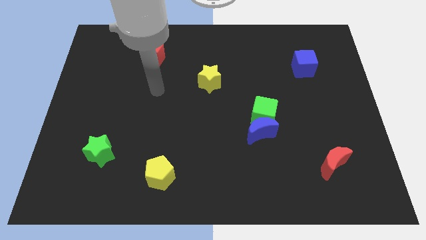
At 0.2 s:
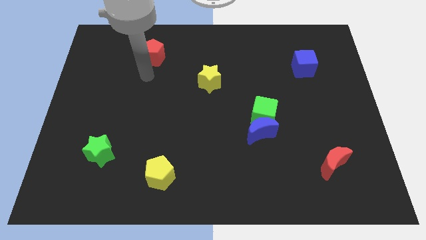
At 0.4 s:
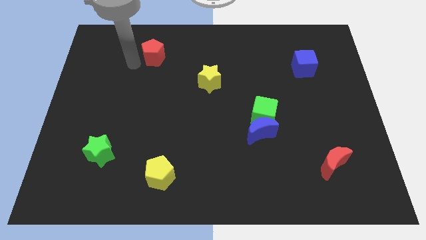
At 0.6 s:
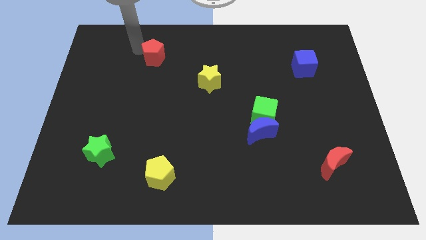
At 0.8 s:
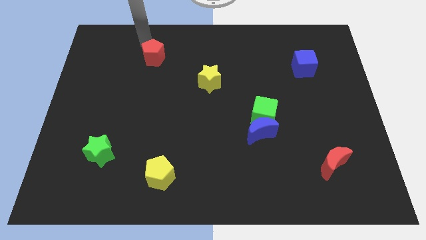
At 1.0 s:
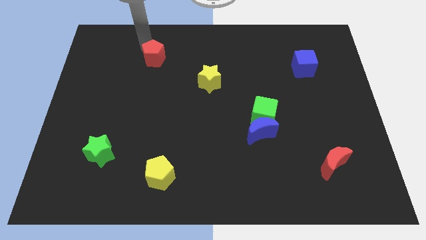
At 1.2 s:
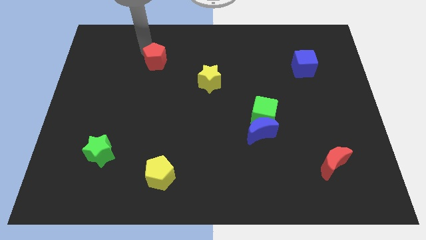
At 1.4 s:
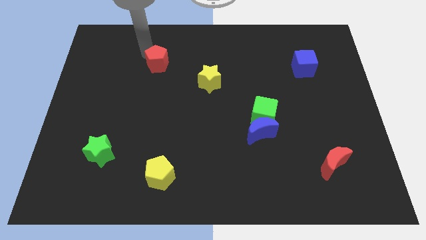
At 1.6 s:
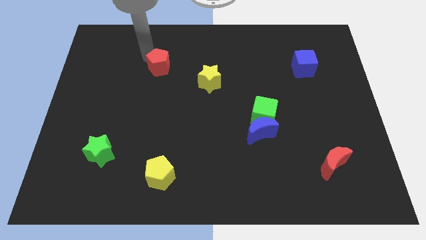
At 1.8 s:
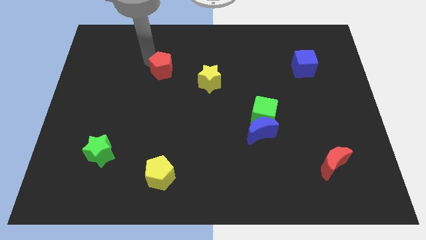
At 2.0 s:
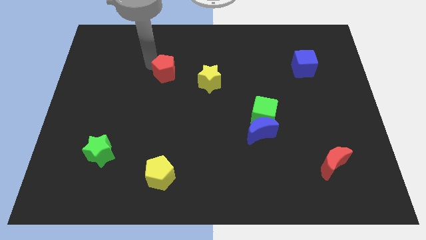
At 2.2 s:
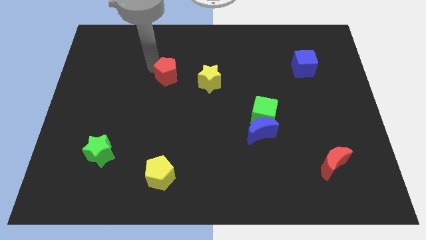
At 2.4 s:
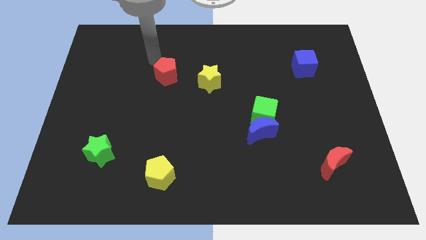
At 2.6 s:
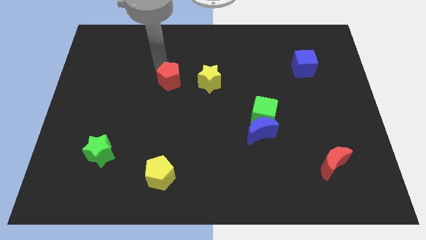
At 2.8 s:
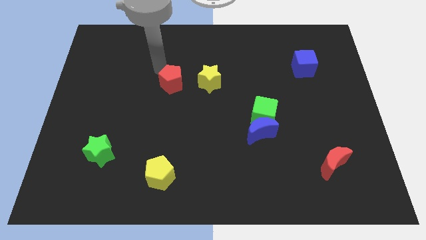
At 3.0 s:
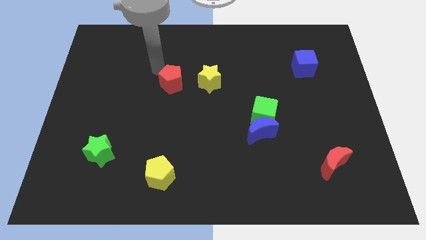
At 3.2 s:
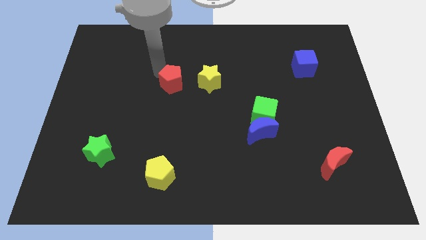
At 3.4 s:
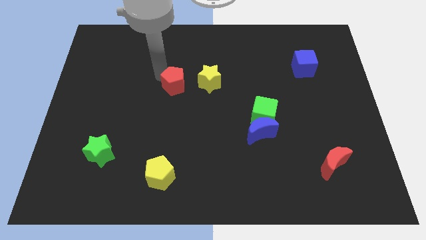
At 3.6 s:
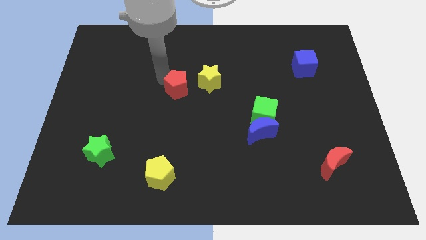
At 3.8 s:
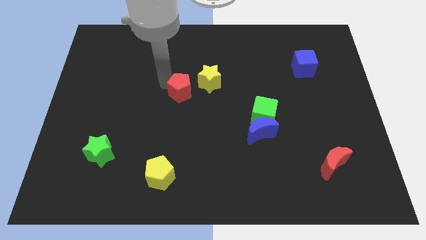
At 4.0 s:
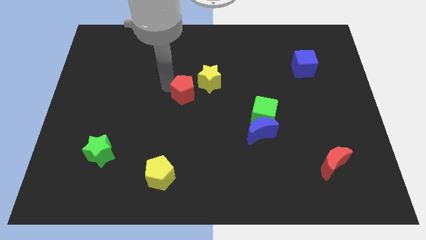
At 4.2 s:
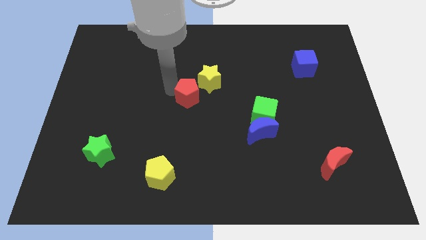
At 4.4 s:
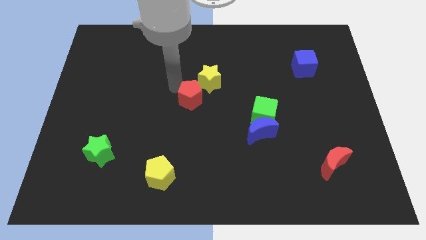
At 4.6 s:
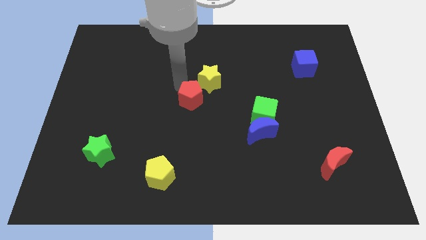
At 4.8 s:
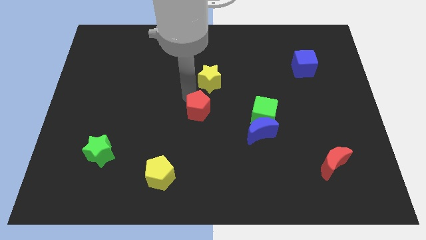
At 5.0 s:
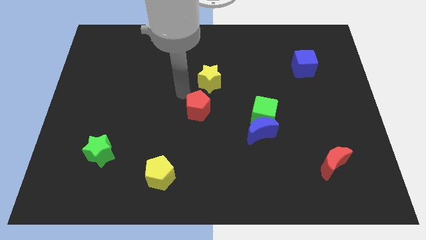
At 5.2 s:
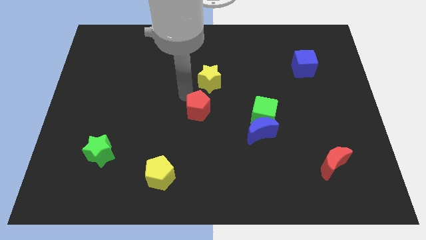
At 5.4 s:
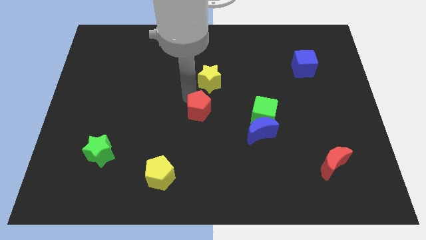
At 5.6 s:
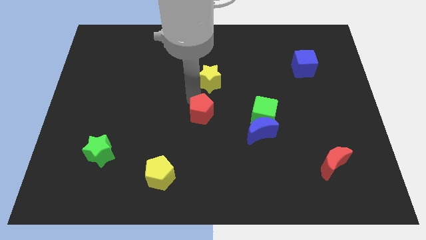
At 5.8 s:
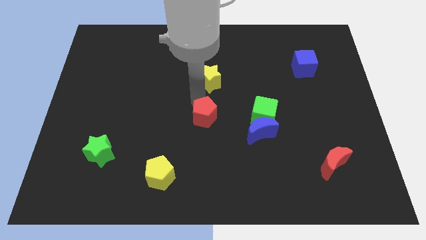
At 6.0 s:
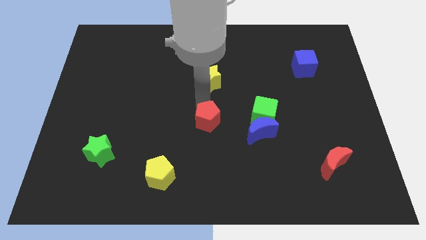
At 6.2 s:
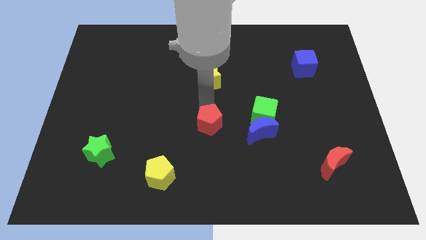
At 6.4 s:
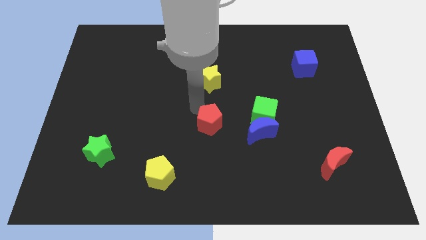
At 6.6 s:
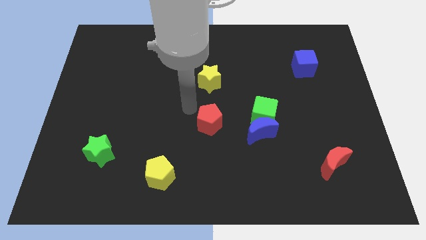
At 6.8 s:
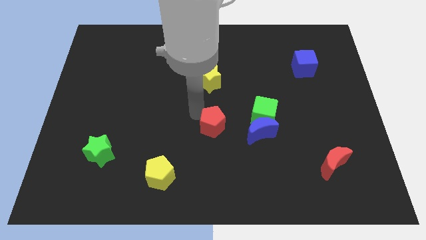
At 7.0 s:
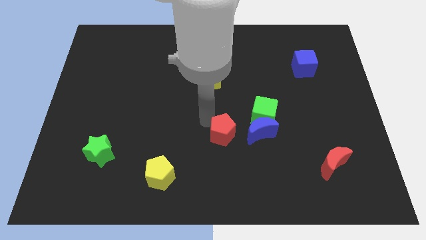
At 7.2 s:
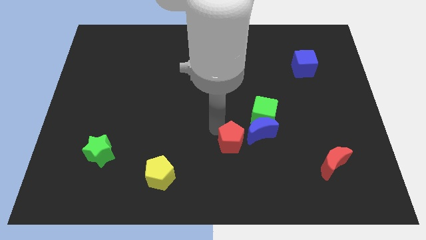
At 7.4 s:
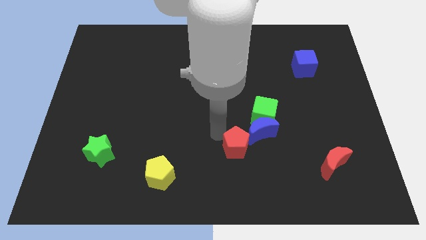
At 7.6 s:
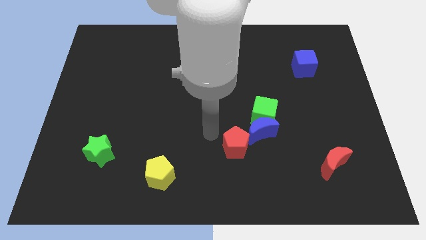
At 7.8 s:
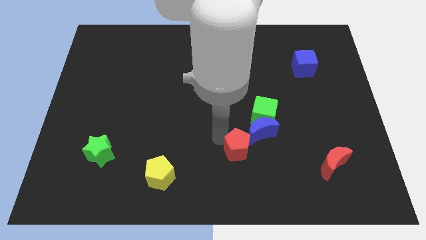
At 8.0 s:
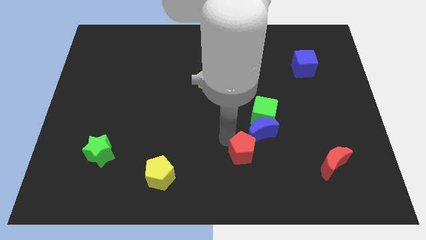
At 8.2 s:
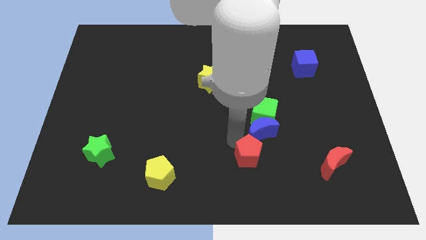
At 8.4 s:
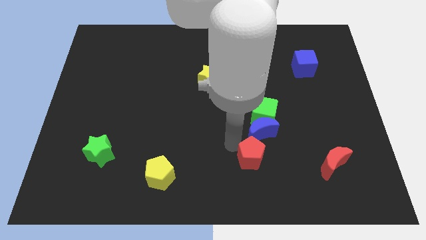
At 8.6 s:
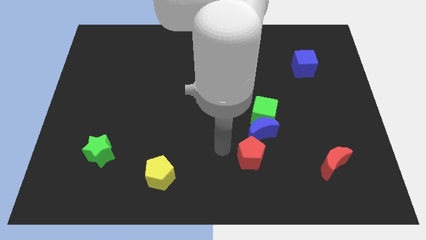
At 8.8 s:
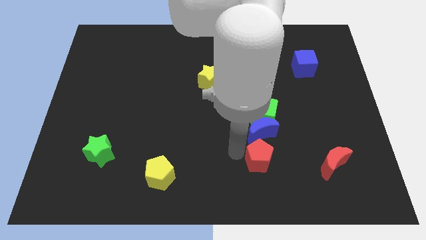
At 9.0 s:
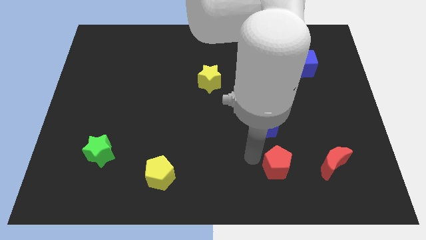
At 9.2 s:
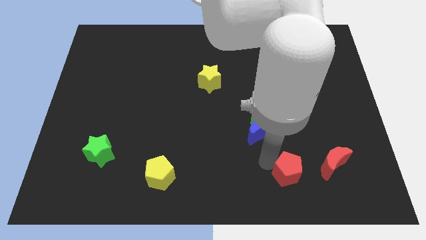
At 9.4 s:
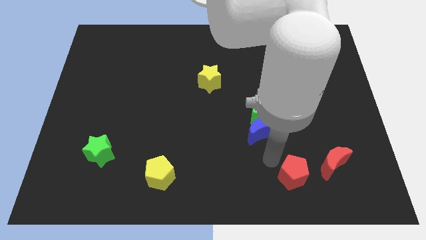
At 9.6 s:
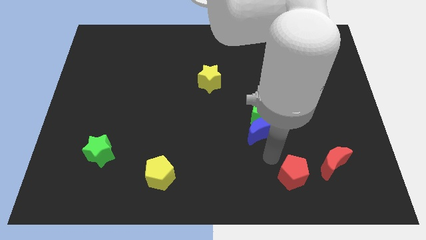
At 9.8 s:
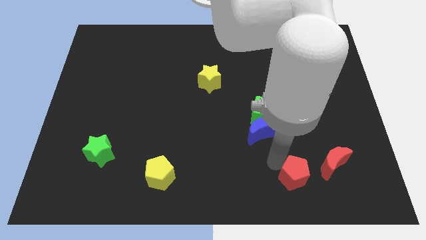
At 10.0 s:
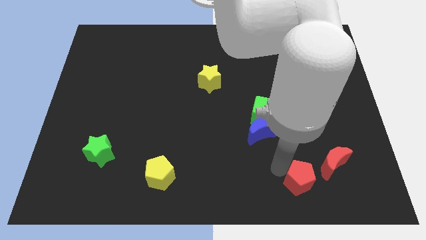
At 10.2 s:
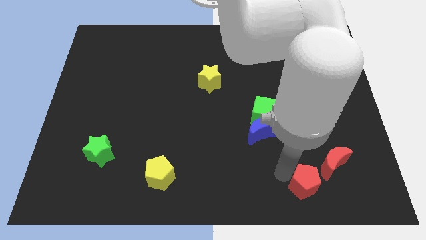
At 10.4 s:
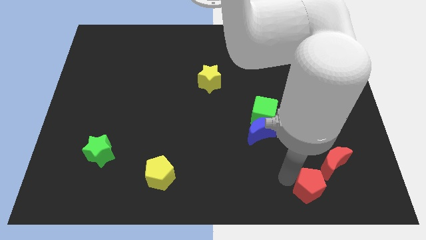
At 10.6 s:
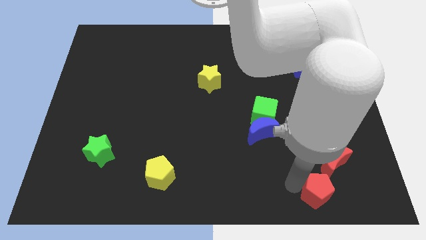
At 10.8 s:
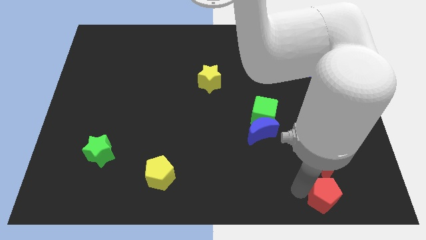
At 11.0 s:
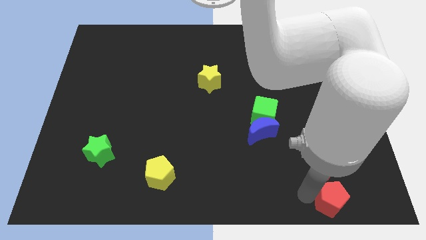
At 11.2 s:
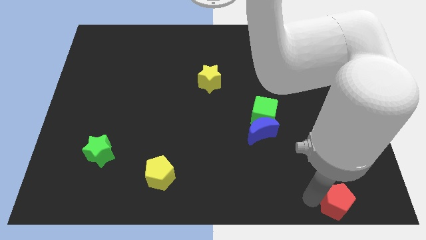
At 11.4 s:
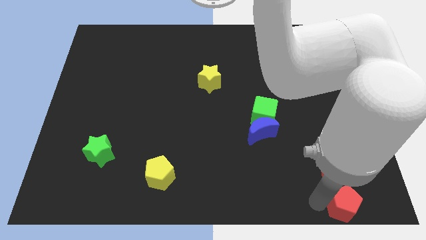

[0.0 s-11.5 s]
put the red pentagon to the lower right corner

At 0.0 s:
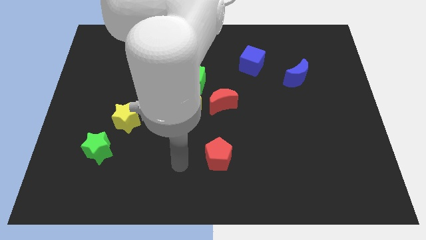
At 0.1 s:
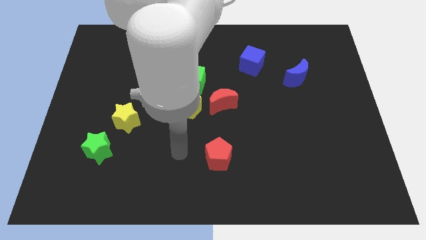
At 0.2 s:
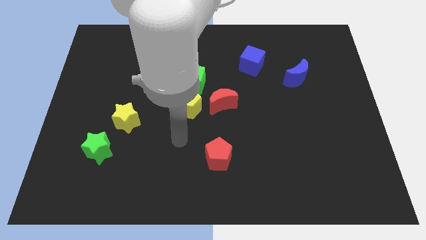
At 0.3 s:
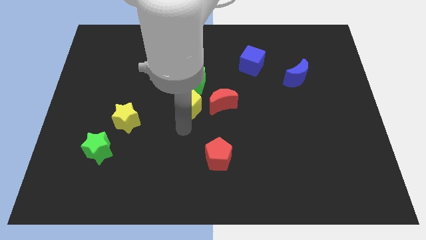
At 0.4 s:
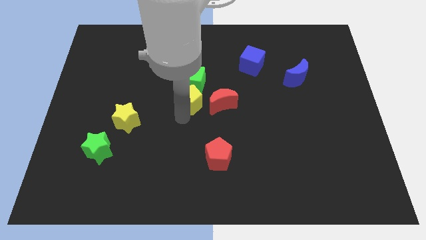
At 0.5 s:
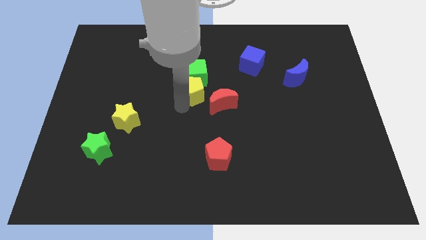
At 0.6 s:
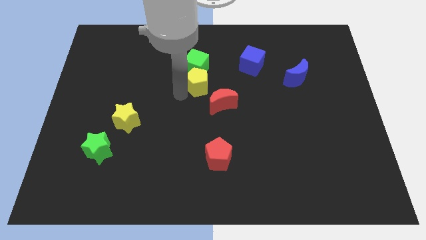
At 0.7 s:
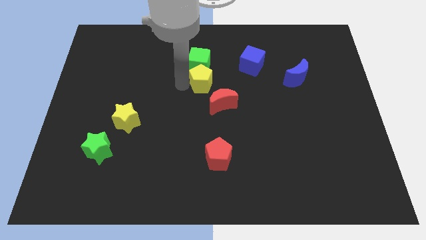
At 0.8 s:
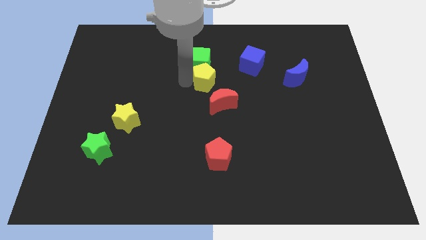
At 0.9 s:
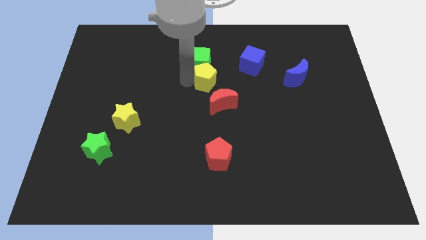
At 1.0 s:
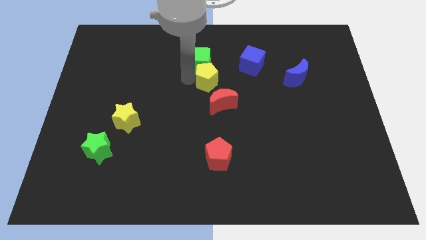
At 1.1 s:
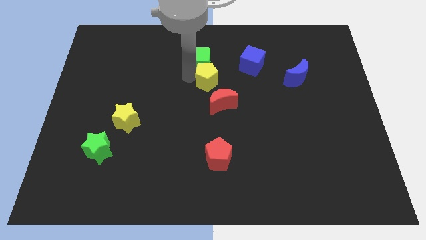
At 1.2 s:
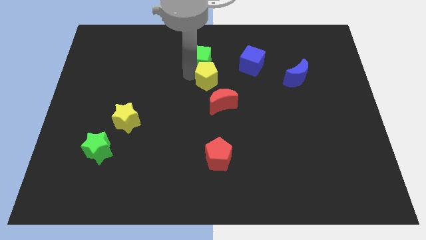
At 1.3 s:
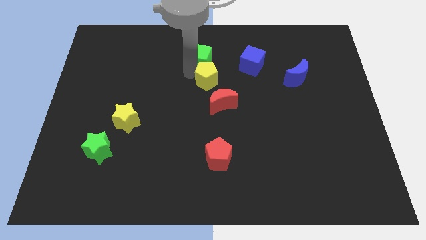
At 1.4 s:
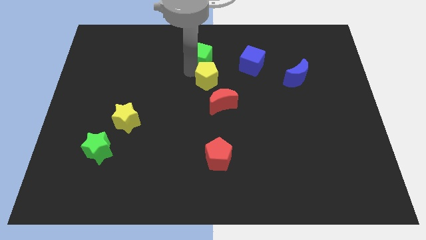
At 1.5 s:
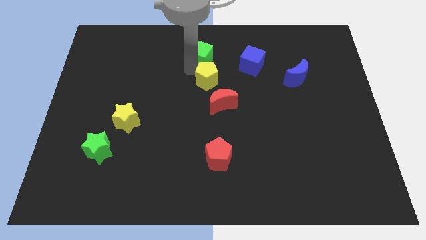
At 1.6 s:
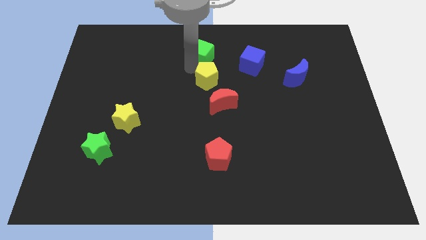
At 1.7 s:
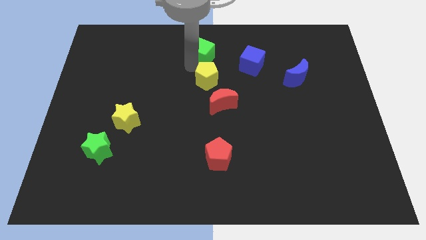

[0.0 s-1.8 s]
move the green cube to the towards your base

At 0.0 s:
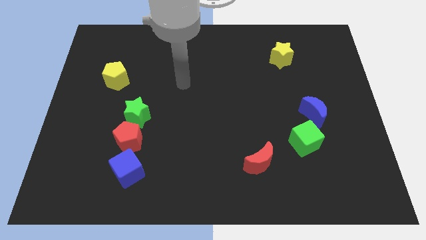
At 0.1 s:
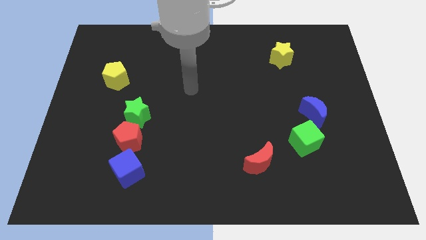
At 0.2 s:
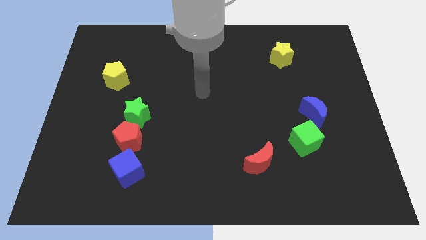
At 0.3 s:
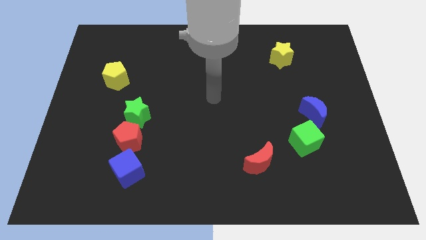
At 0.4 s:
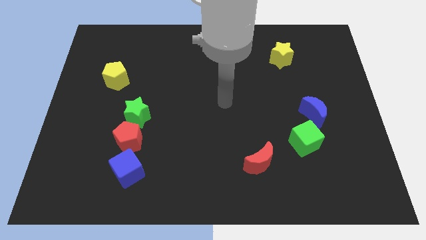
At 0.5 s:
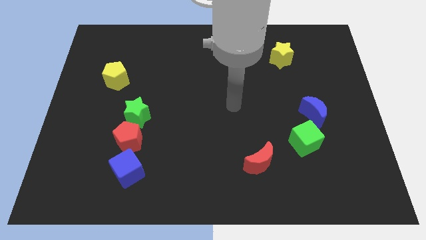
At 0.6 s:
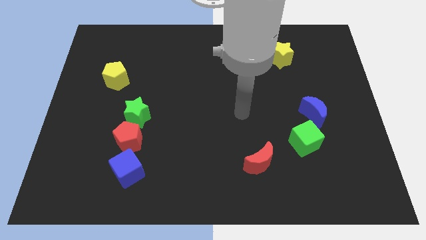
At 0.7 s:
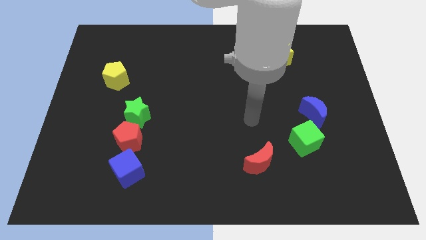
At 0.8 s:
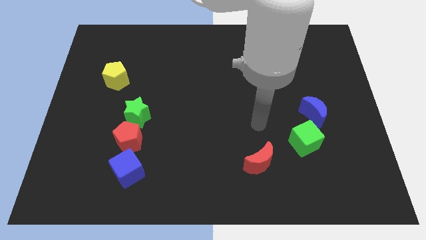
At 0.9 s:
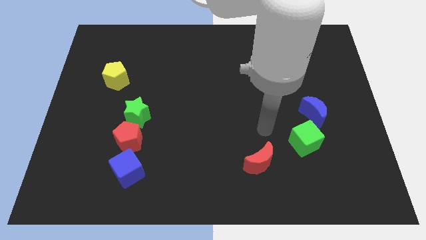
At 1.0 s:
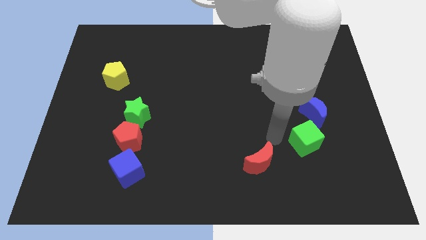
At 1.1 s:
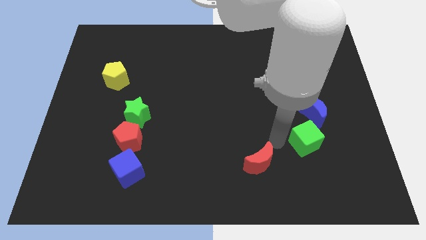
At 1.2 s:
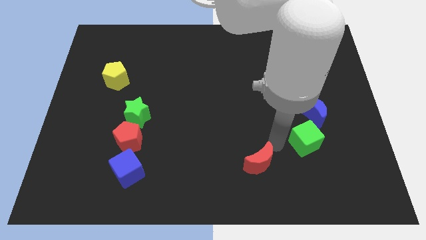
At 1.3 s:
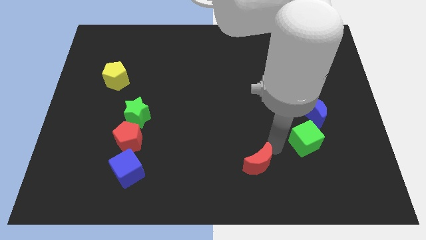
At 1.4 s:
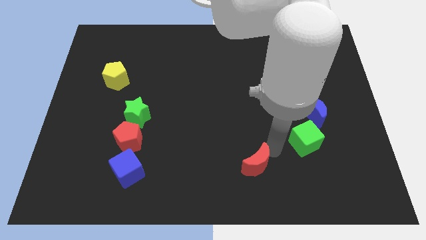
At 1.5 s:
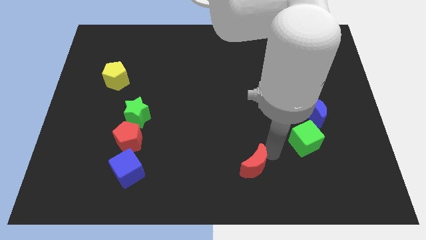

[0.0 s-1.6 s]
slide the red moon to the bottom
